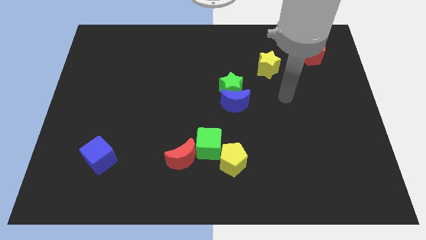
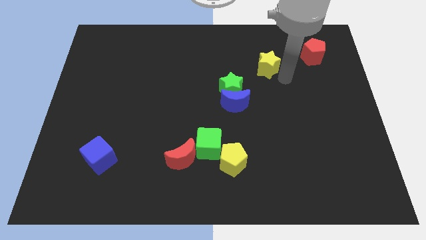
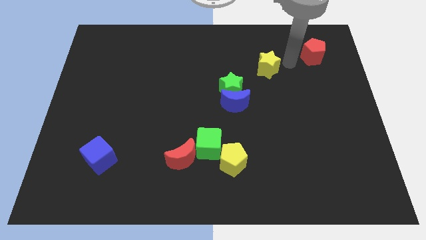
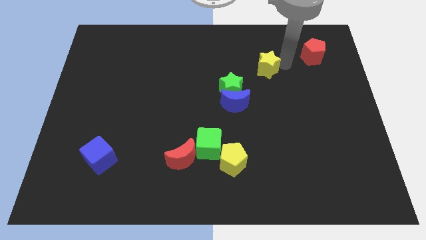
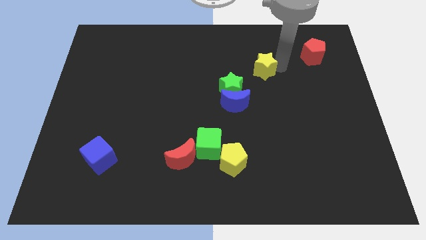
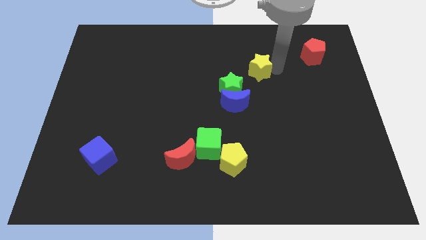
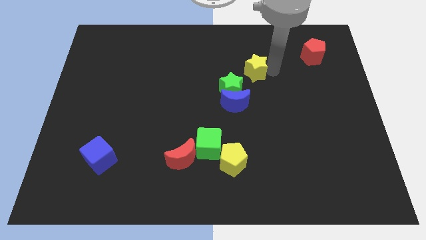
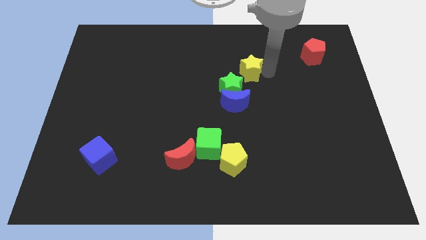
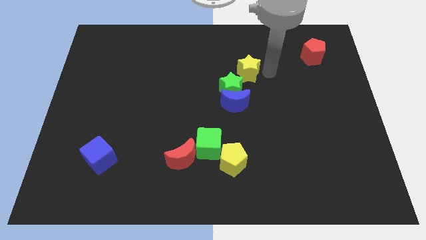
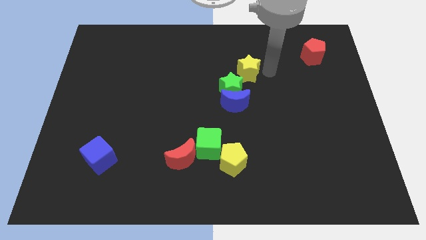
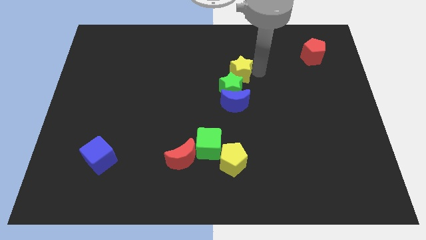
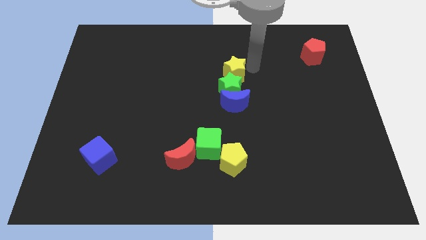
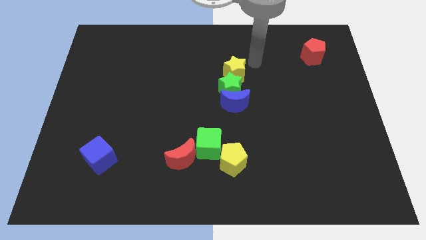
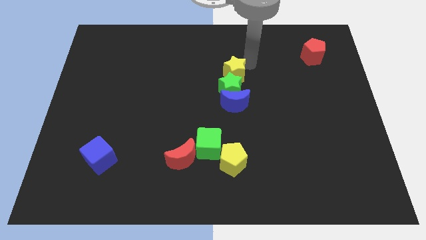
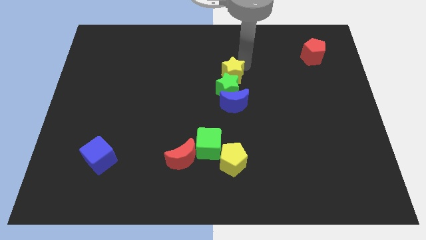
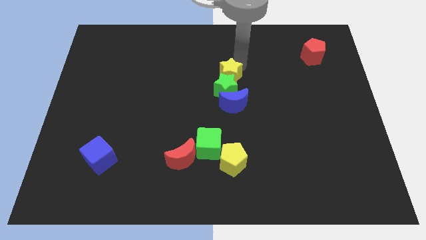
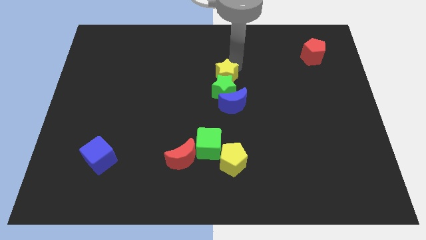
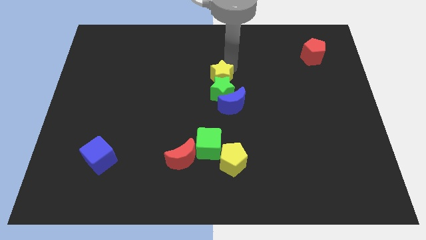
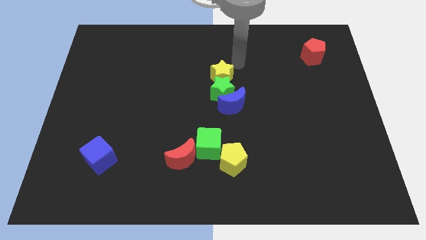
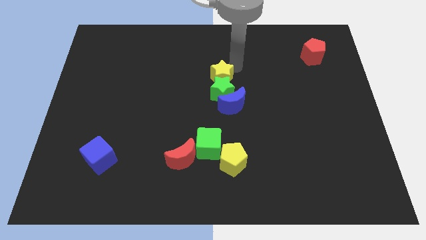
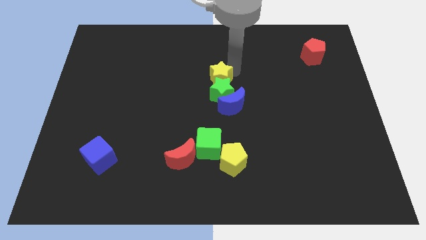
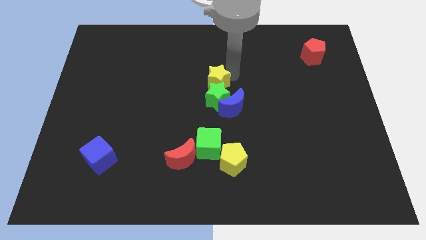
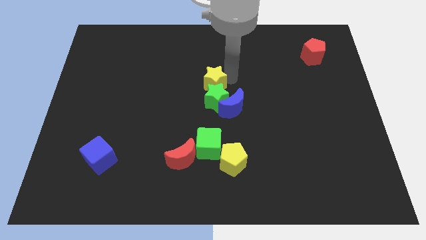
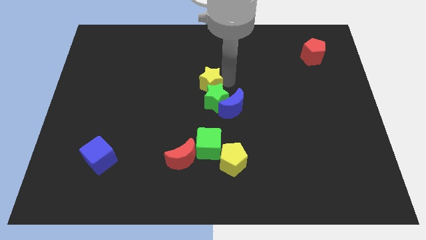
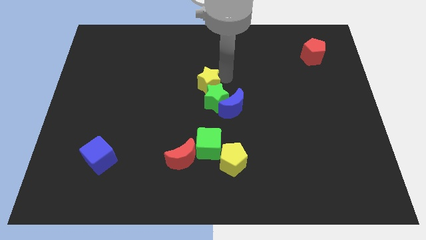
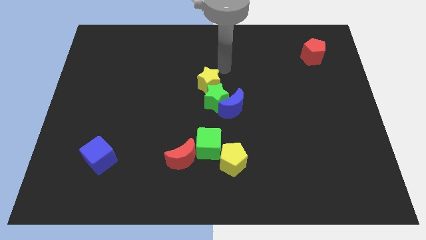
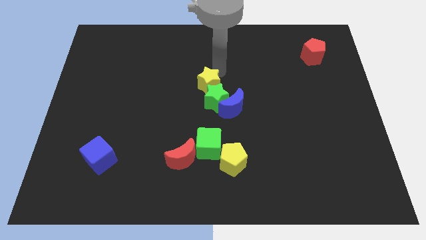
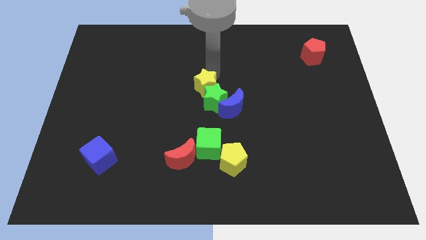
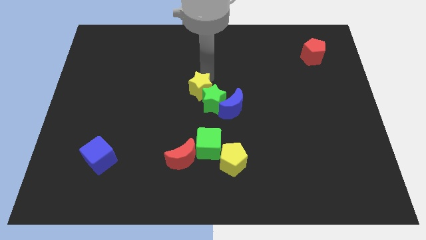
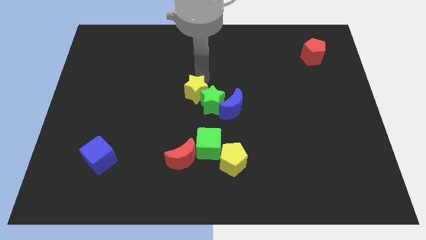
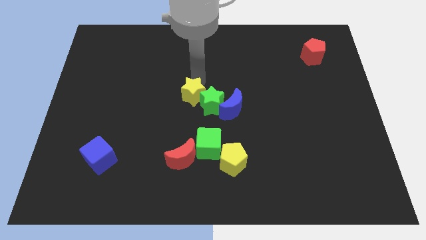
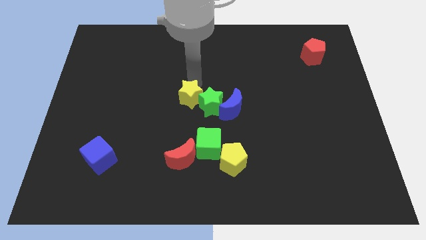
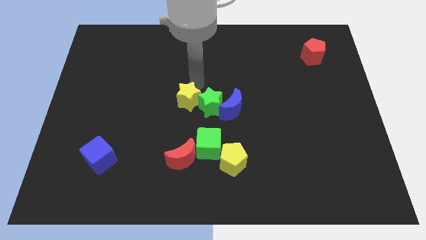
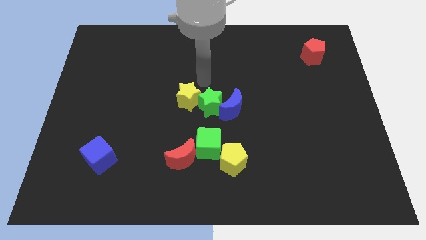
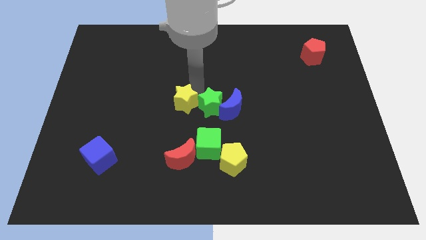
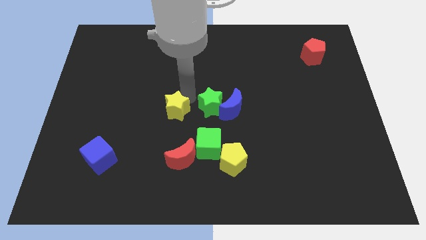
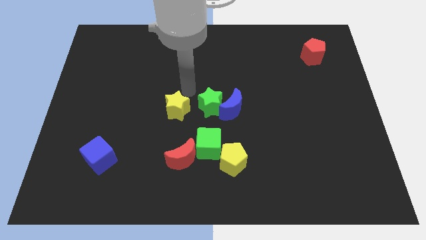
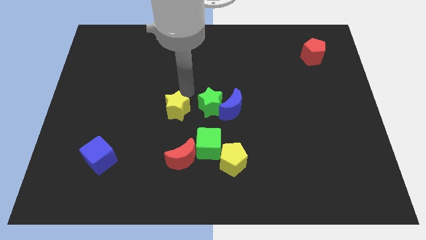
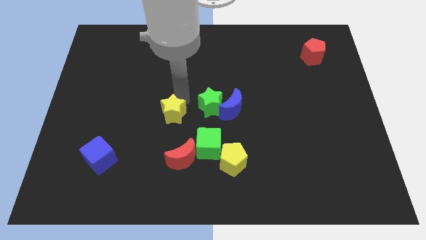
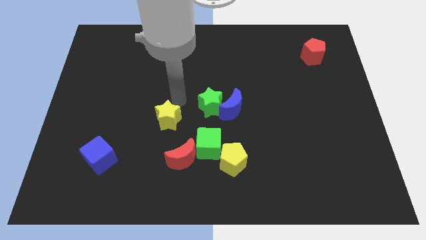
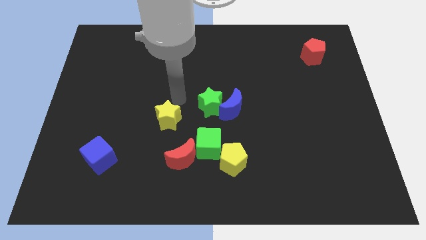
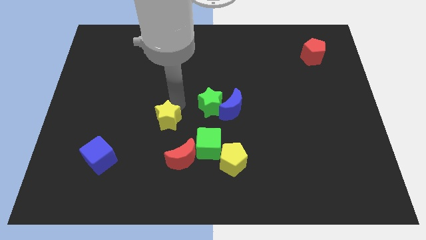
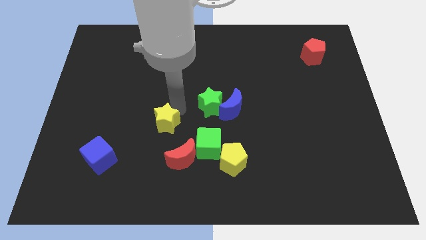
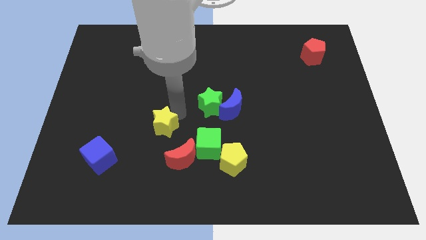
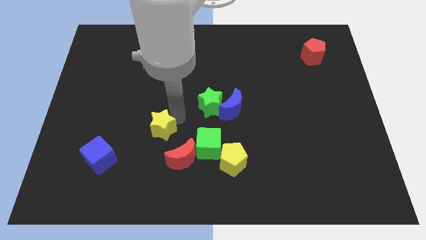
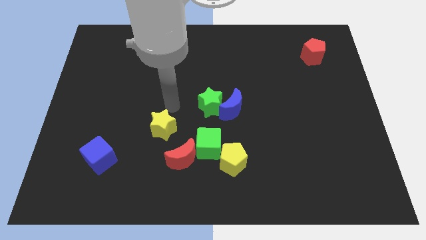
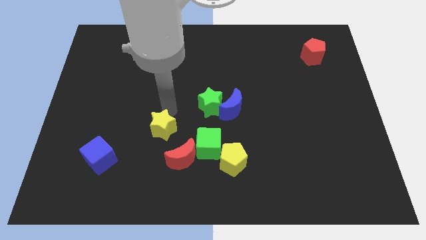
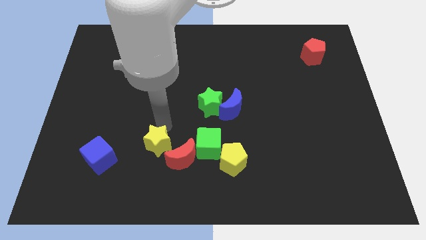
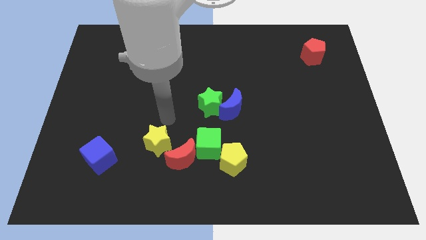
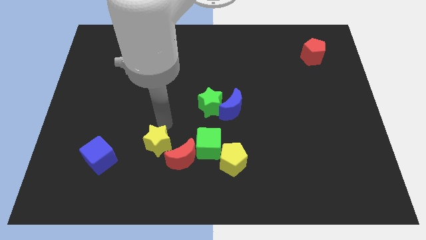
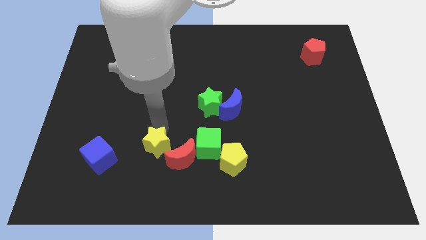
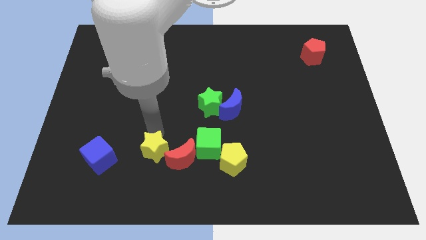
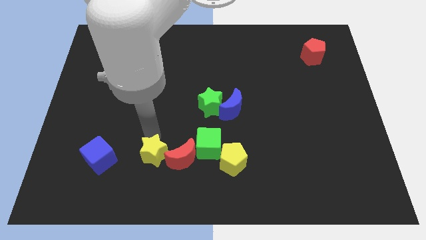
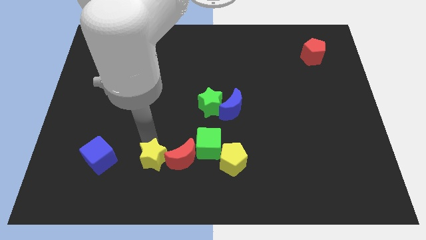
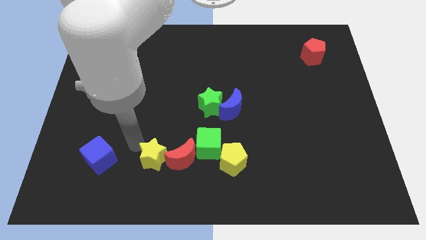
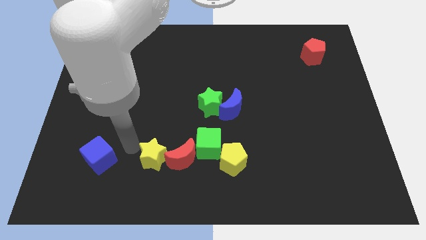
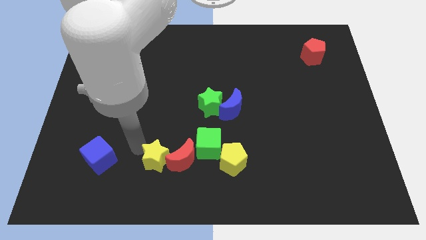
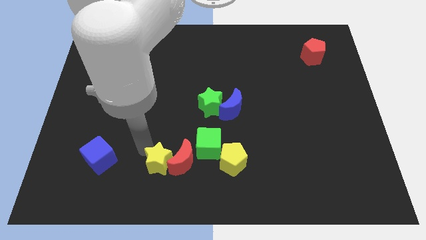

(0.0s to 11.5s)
push the yellow star to the bottom left side of the green cube
